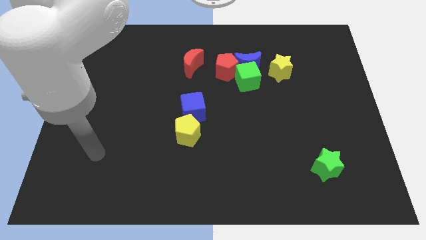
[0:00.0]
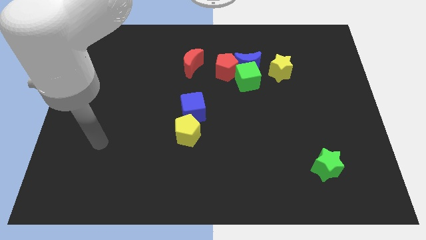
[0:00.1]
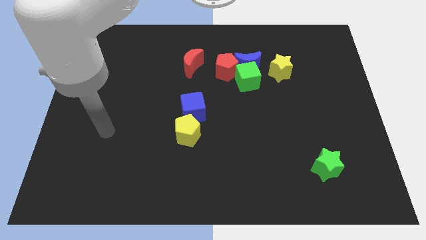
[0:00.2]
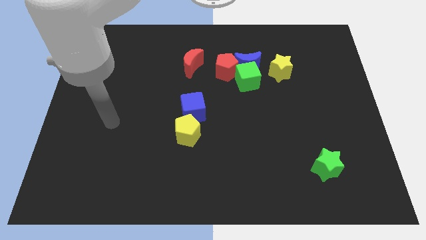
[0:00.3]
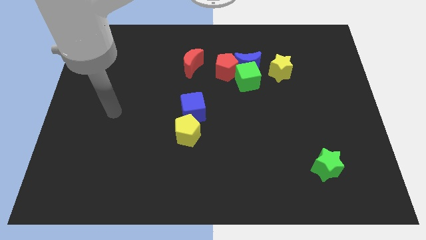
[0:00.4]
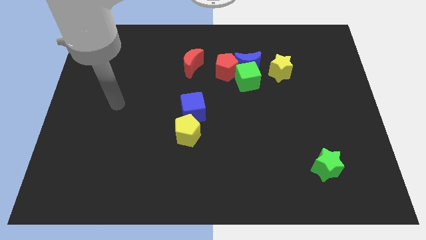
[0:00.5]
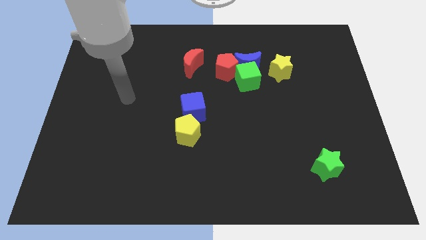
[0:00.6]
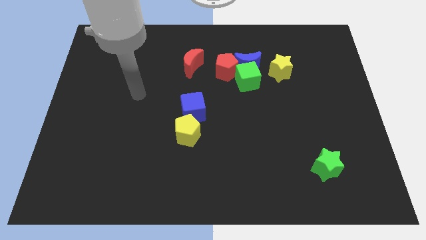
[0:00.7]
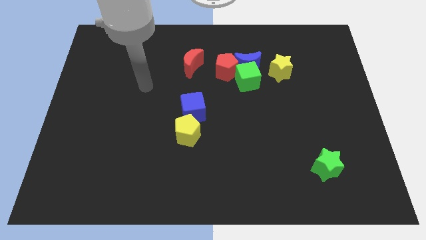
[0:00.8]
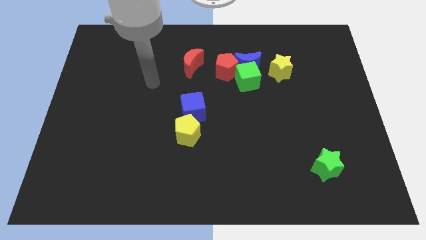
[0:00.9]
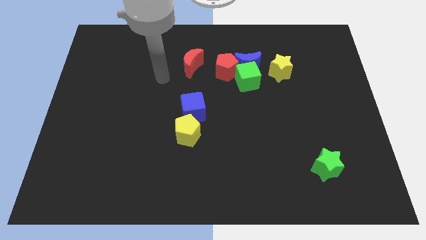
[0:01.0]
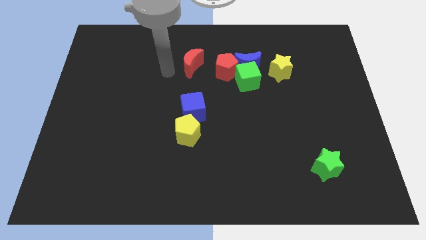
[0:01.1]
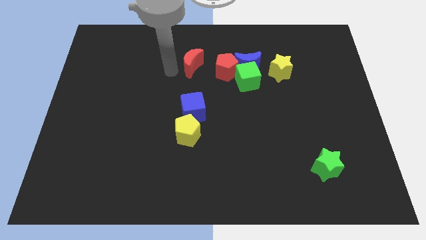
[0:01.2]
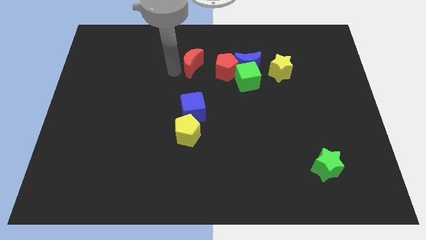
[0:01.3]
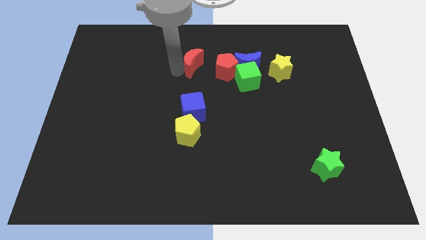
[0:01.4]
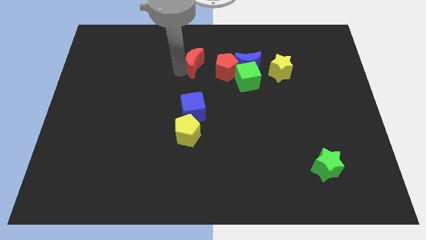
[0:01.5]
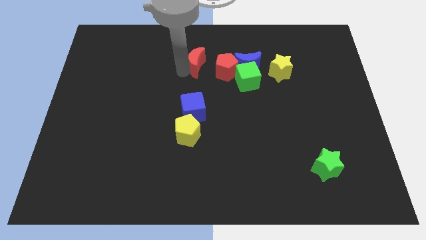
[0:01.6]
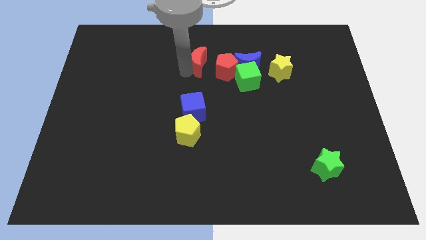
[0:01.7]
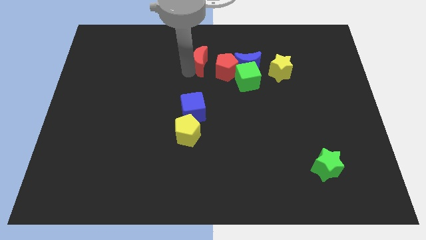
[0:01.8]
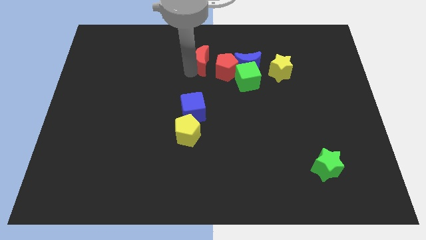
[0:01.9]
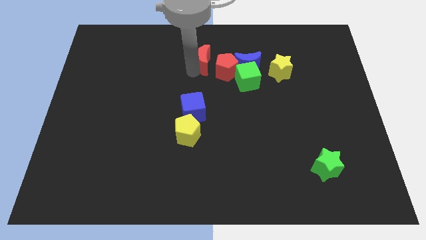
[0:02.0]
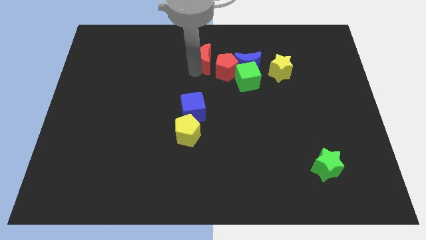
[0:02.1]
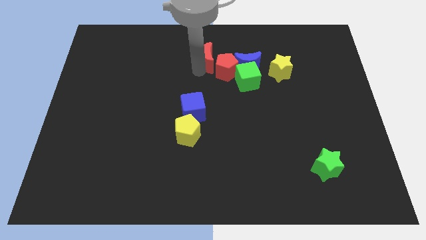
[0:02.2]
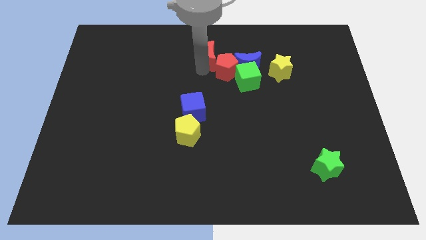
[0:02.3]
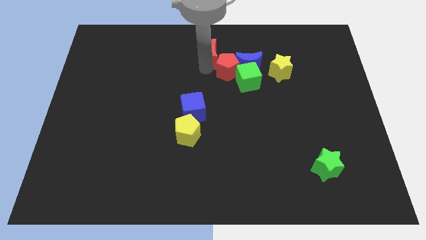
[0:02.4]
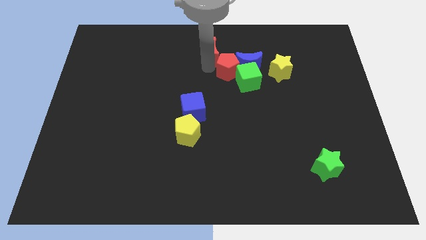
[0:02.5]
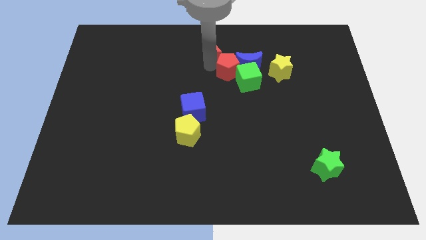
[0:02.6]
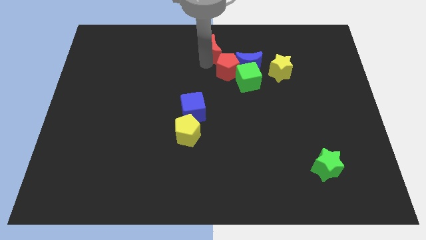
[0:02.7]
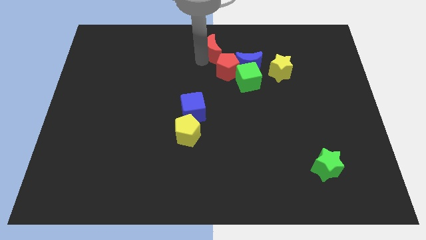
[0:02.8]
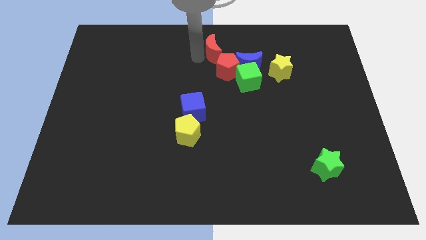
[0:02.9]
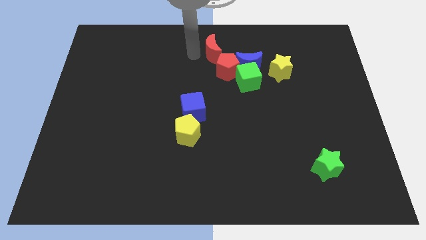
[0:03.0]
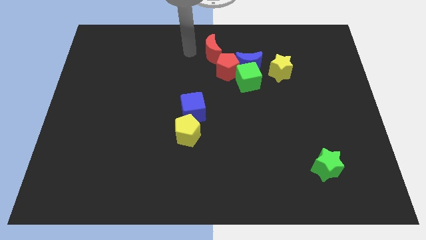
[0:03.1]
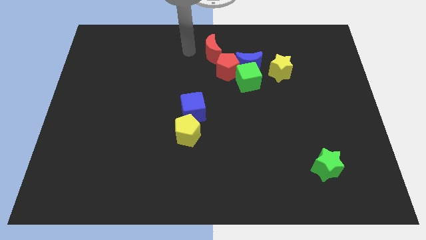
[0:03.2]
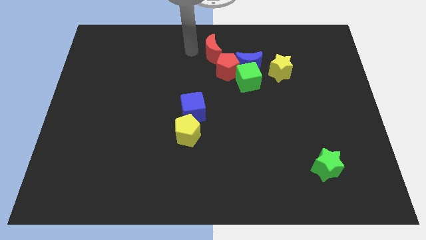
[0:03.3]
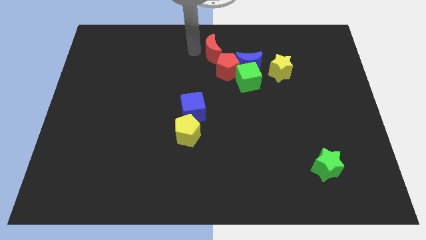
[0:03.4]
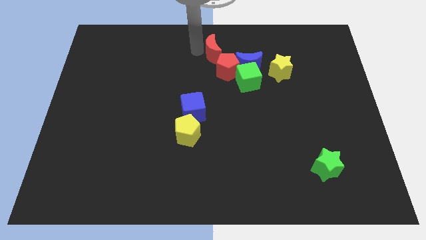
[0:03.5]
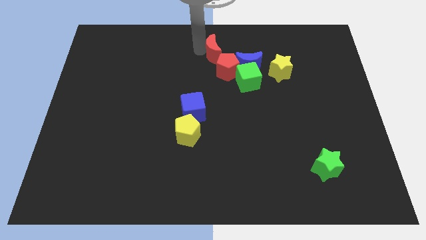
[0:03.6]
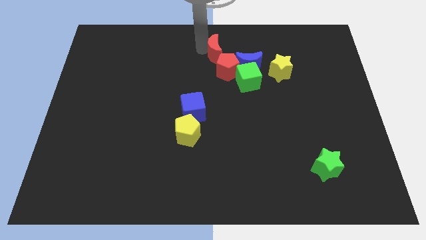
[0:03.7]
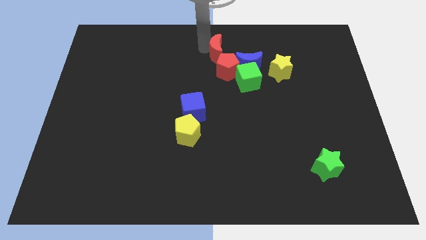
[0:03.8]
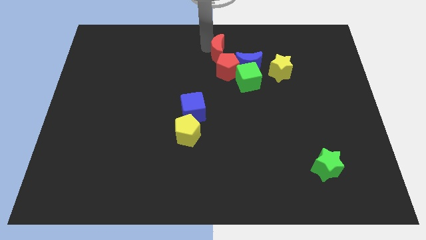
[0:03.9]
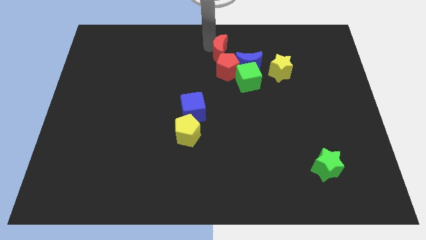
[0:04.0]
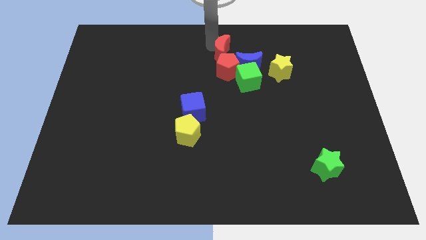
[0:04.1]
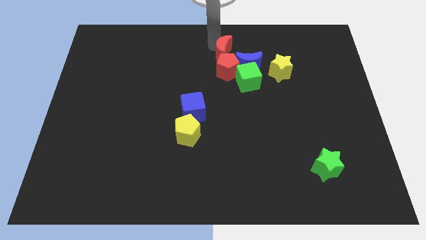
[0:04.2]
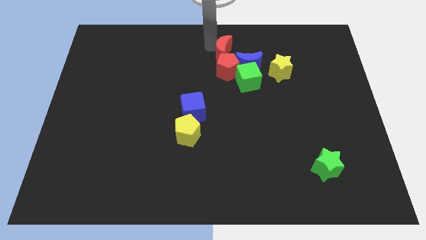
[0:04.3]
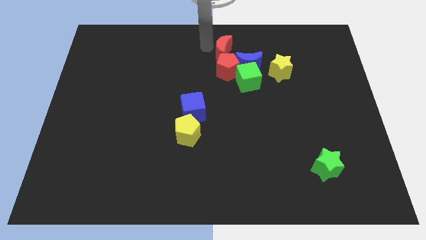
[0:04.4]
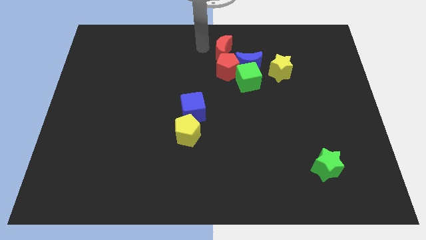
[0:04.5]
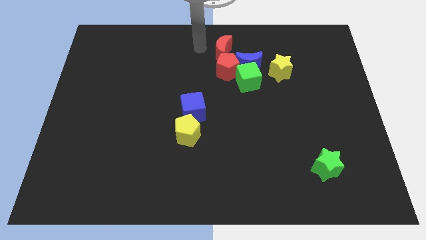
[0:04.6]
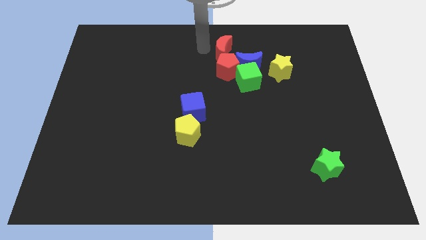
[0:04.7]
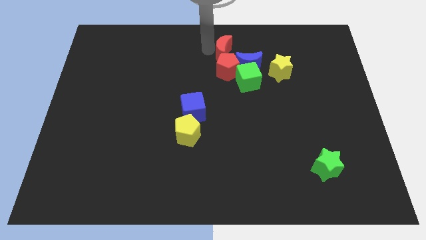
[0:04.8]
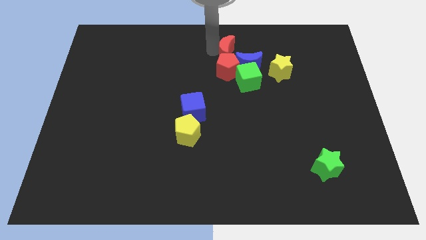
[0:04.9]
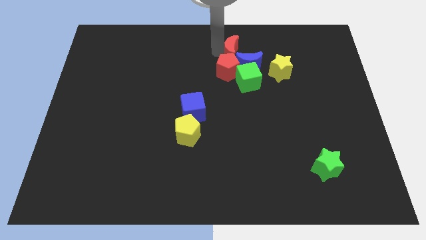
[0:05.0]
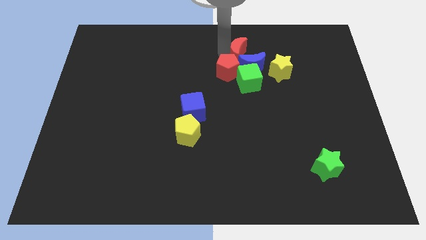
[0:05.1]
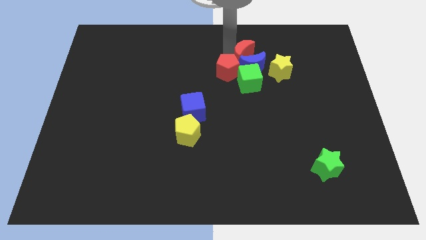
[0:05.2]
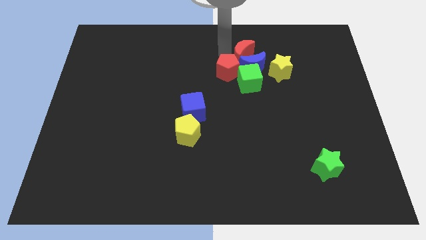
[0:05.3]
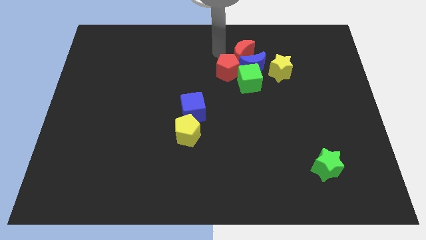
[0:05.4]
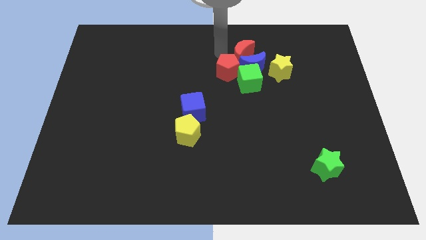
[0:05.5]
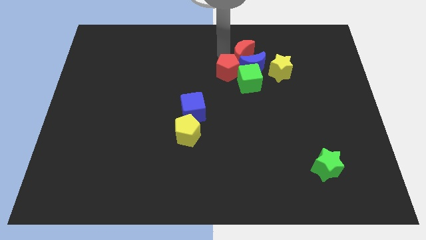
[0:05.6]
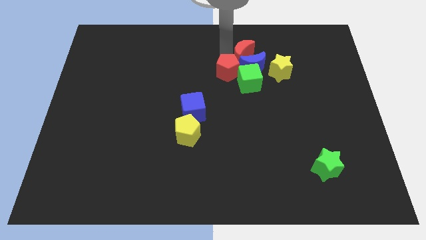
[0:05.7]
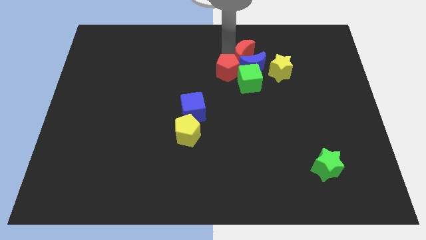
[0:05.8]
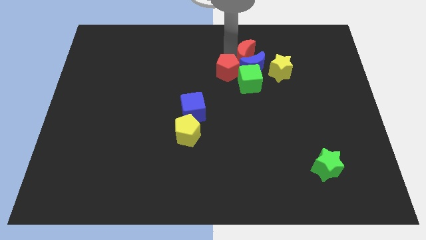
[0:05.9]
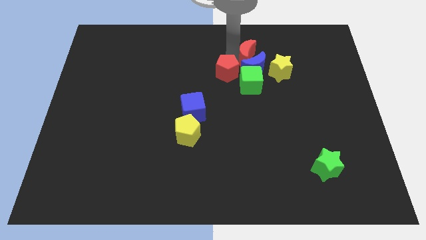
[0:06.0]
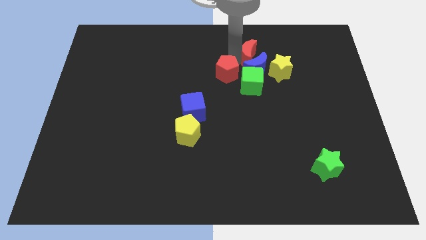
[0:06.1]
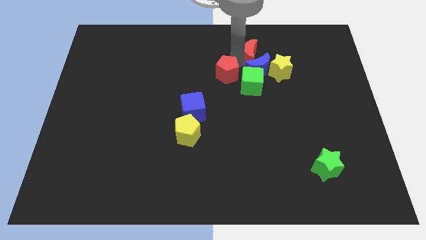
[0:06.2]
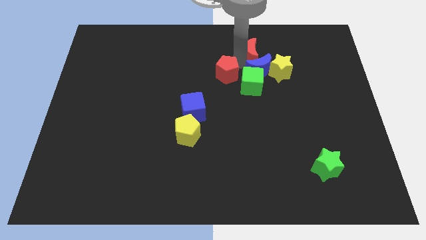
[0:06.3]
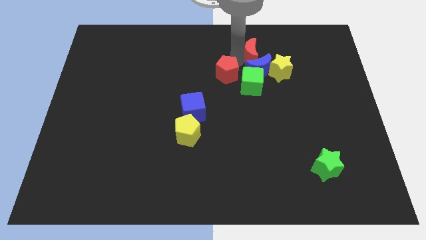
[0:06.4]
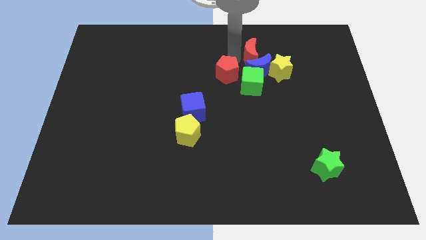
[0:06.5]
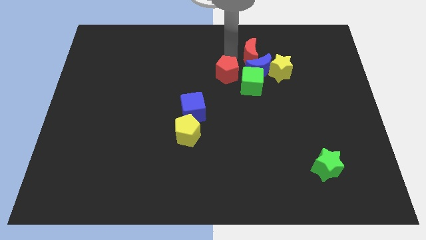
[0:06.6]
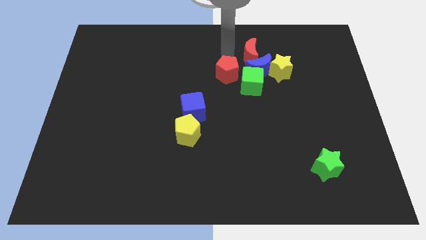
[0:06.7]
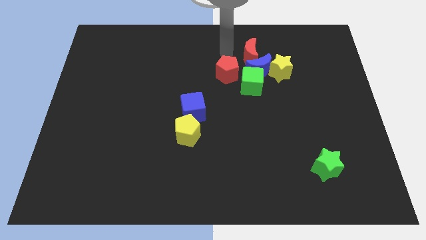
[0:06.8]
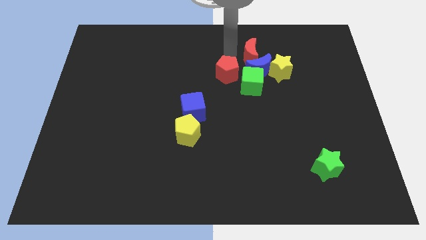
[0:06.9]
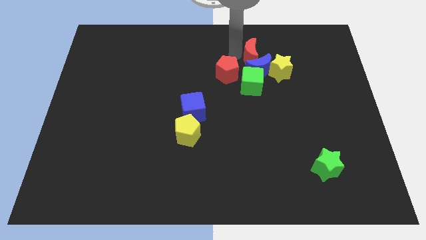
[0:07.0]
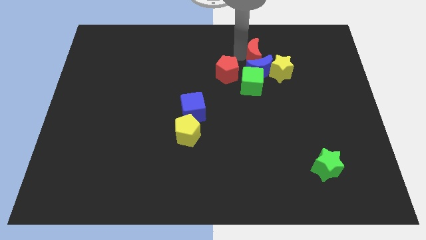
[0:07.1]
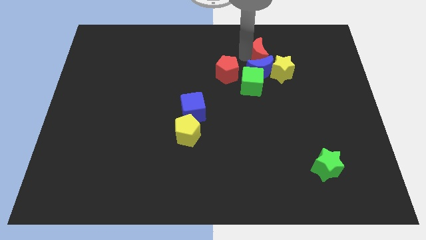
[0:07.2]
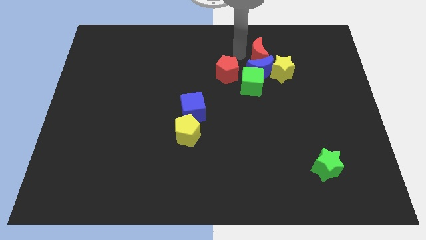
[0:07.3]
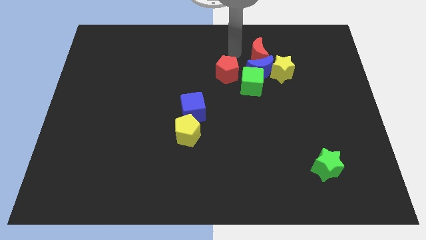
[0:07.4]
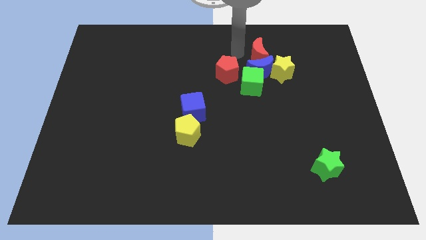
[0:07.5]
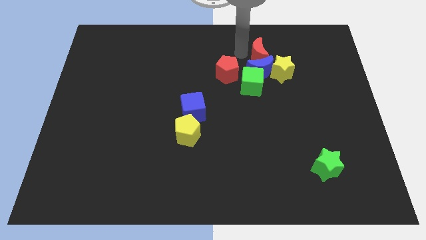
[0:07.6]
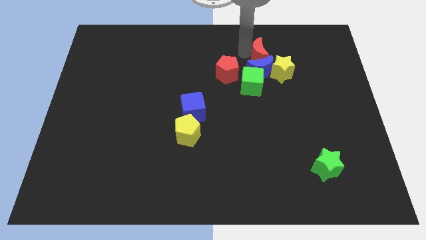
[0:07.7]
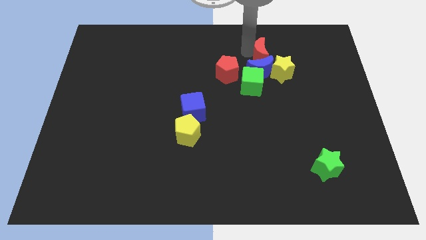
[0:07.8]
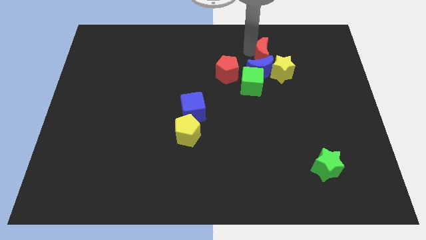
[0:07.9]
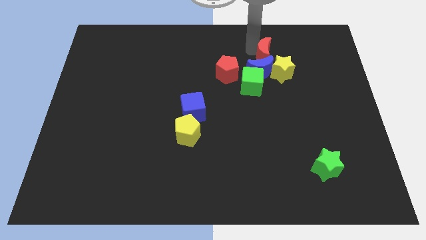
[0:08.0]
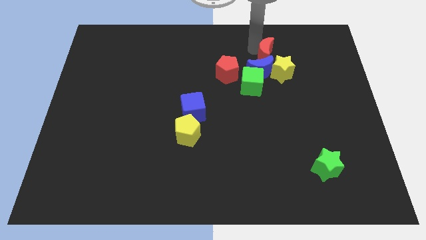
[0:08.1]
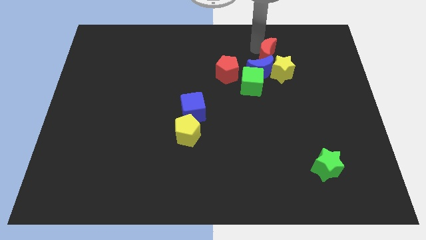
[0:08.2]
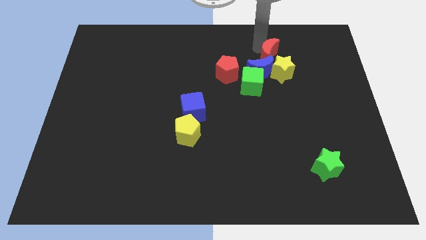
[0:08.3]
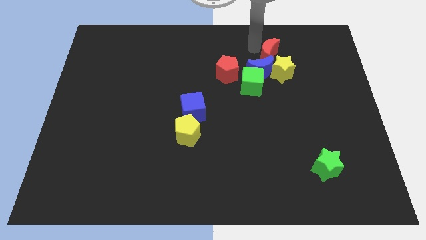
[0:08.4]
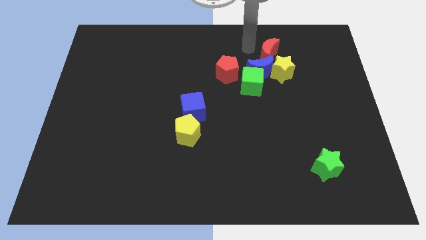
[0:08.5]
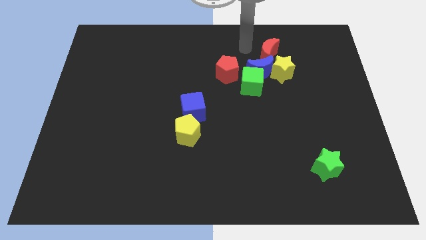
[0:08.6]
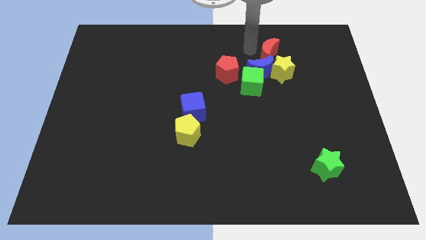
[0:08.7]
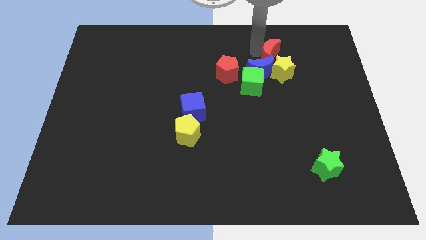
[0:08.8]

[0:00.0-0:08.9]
push the red moon right
